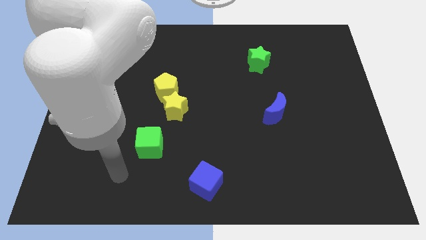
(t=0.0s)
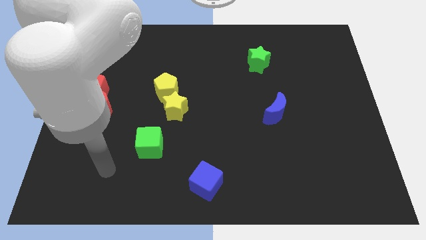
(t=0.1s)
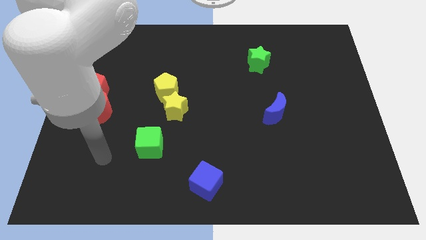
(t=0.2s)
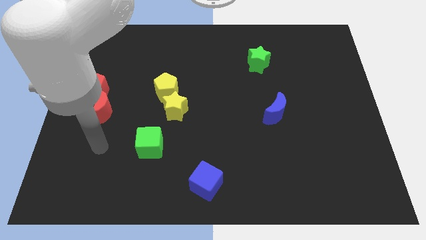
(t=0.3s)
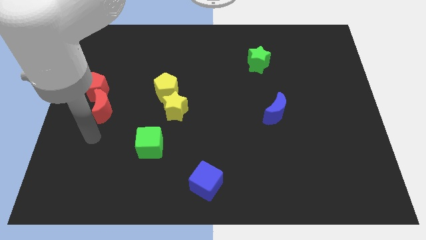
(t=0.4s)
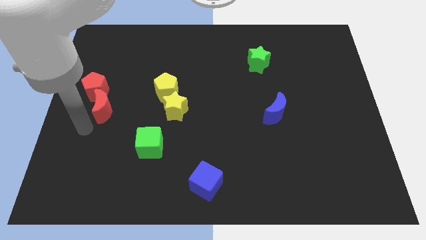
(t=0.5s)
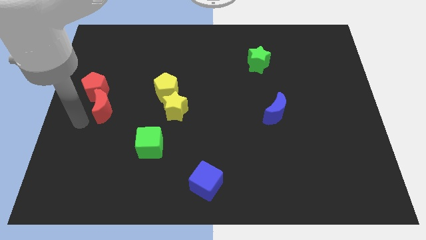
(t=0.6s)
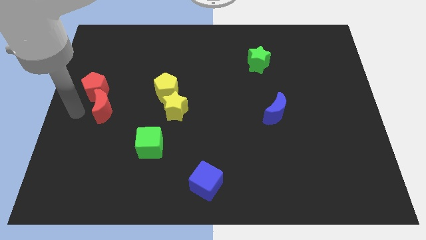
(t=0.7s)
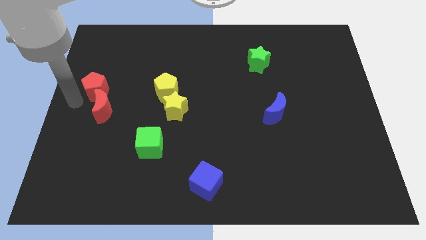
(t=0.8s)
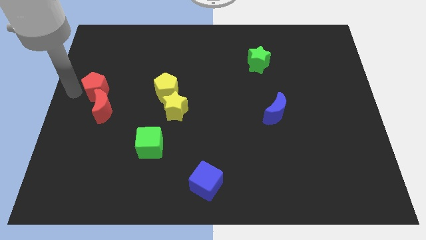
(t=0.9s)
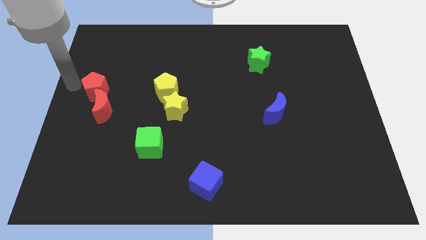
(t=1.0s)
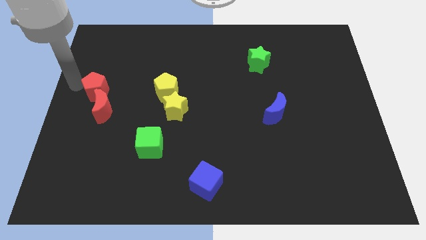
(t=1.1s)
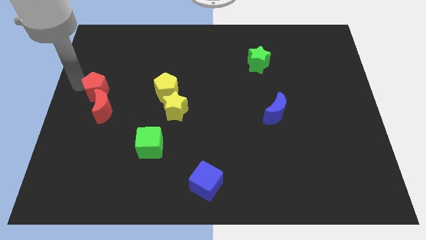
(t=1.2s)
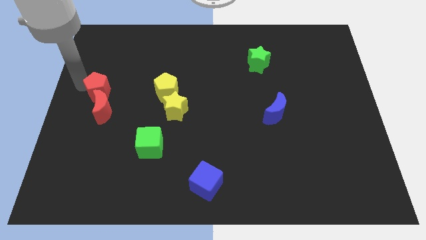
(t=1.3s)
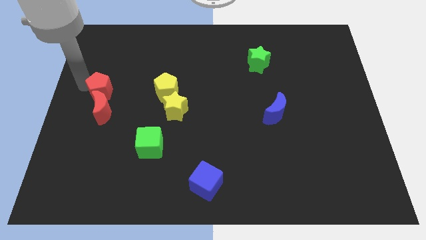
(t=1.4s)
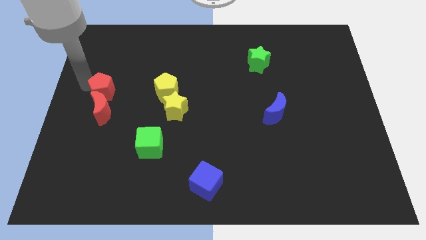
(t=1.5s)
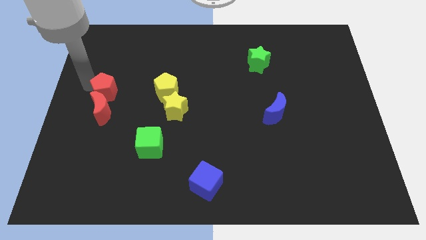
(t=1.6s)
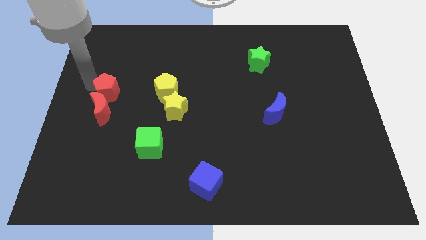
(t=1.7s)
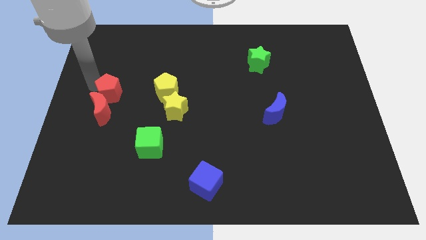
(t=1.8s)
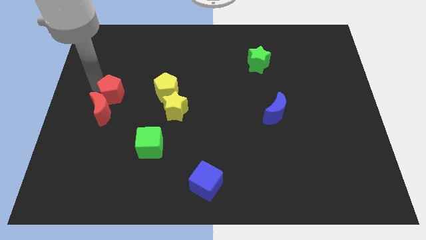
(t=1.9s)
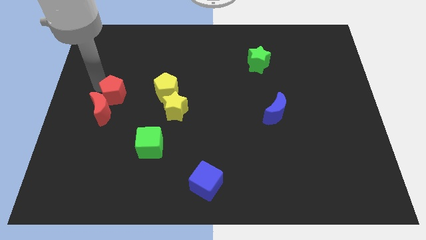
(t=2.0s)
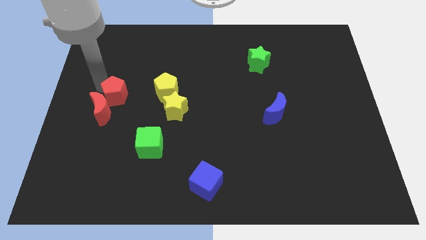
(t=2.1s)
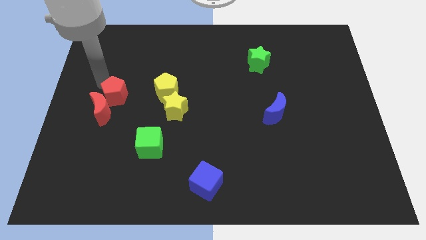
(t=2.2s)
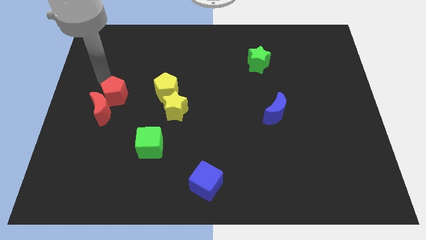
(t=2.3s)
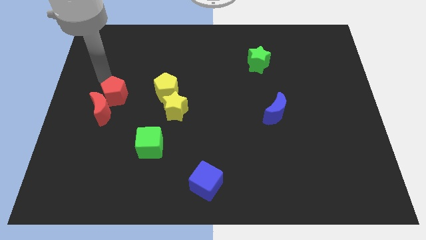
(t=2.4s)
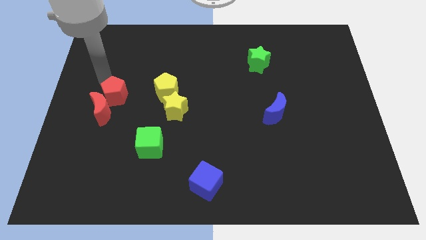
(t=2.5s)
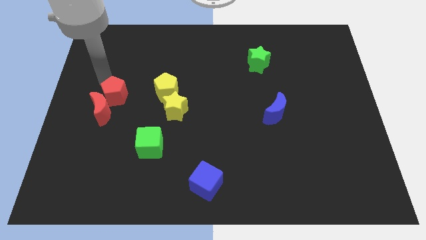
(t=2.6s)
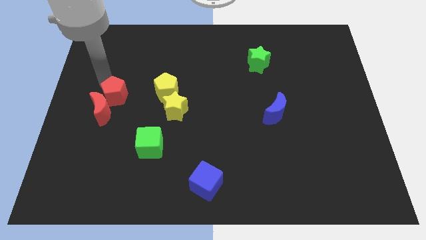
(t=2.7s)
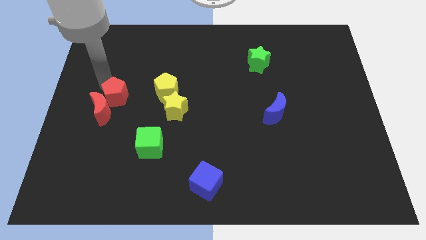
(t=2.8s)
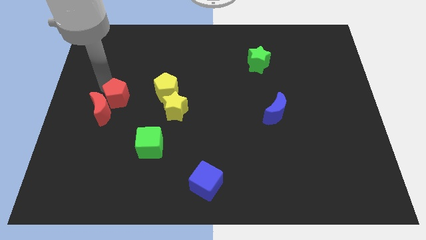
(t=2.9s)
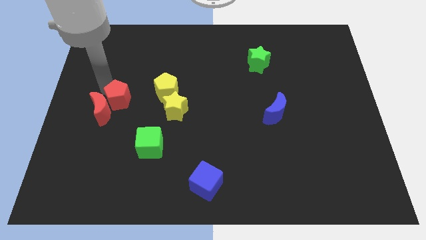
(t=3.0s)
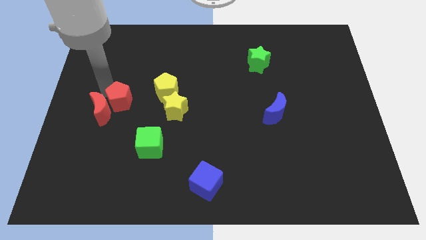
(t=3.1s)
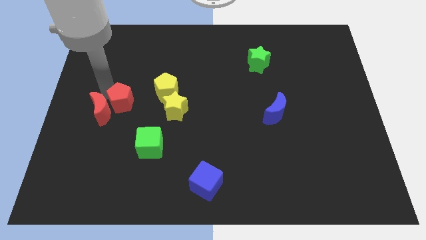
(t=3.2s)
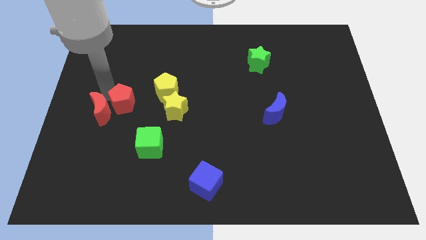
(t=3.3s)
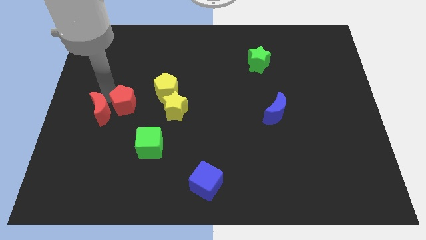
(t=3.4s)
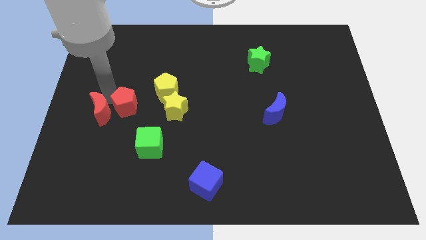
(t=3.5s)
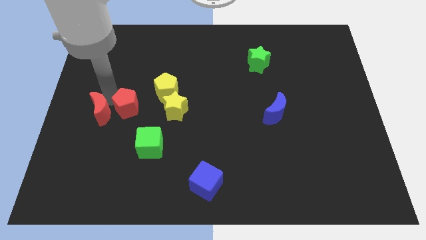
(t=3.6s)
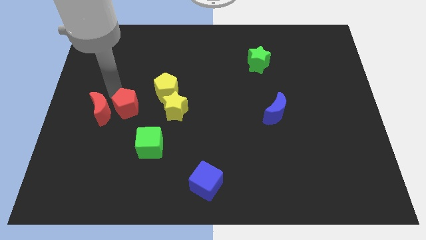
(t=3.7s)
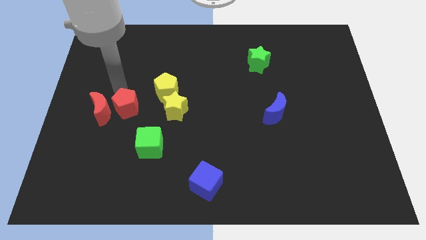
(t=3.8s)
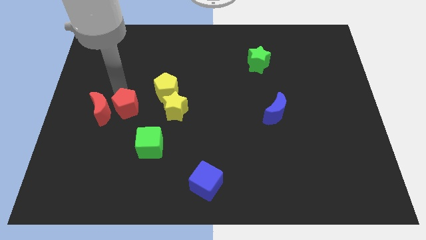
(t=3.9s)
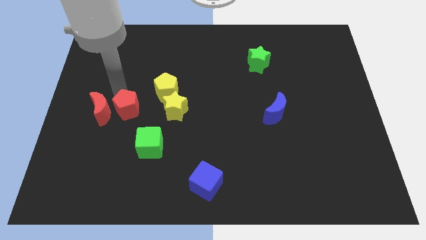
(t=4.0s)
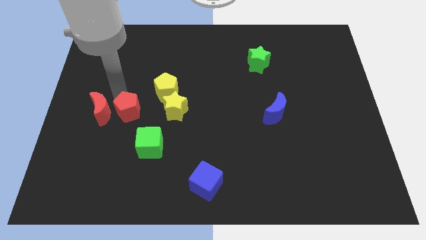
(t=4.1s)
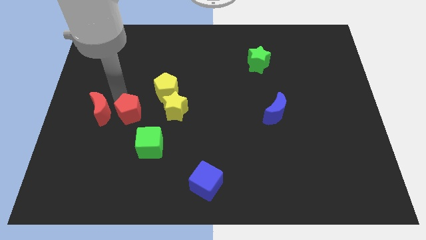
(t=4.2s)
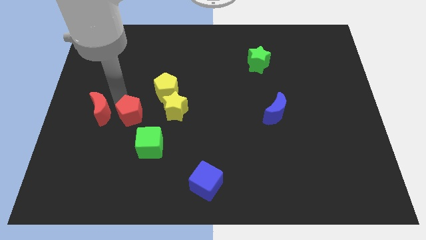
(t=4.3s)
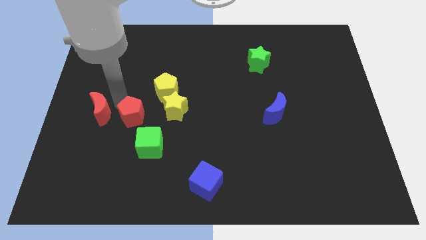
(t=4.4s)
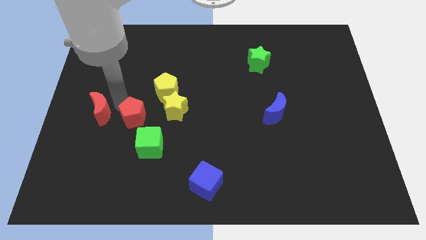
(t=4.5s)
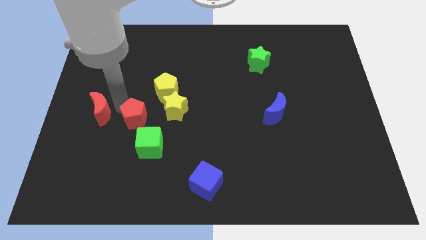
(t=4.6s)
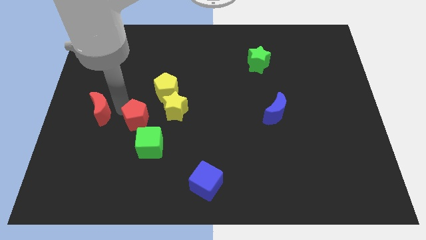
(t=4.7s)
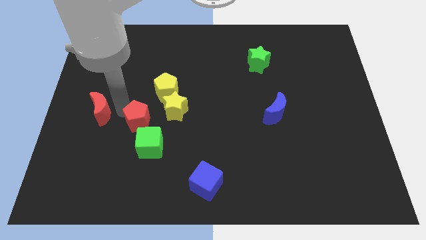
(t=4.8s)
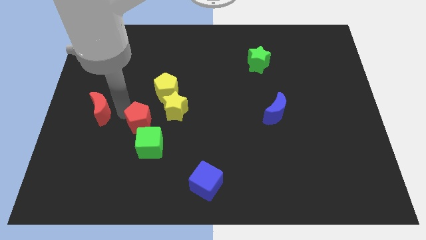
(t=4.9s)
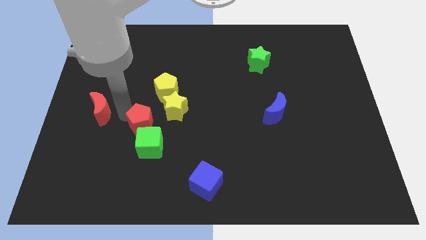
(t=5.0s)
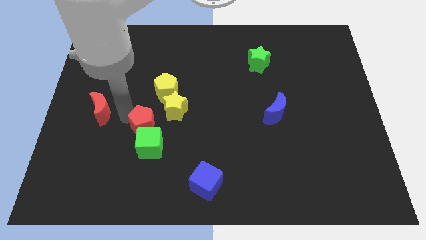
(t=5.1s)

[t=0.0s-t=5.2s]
push the red pentagon to the green cube

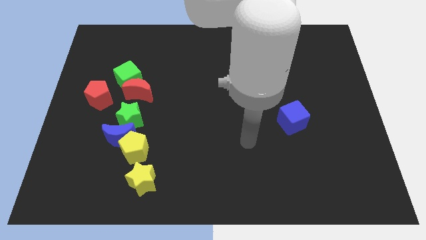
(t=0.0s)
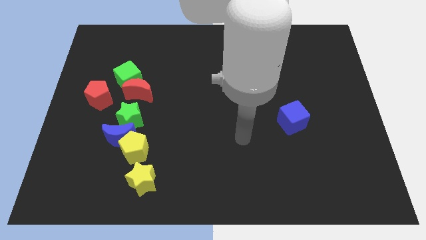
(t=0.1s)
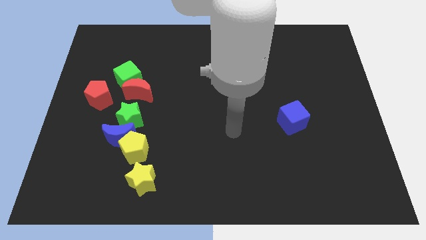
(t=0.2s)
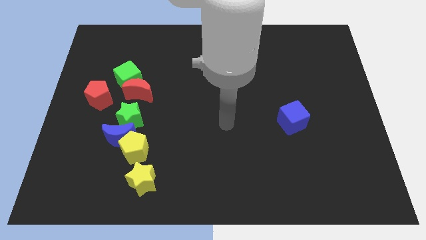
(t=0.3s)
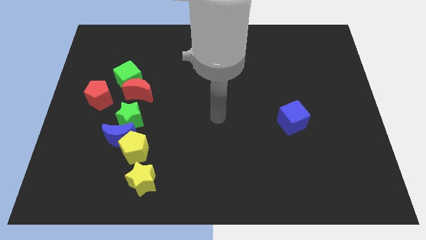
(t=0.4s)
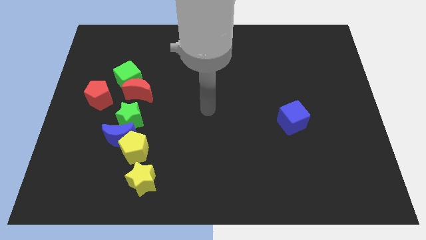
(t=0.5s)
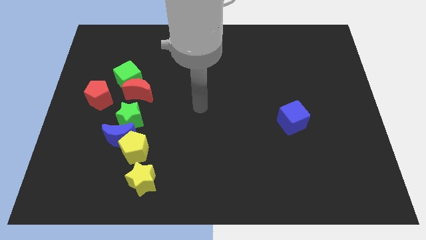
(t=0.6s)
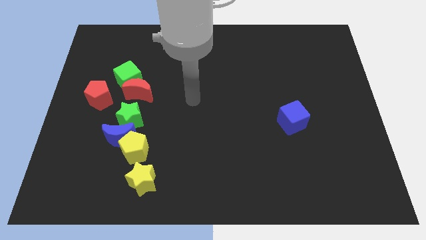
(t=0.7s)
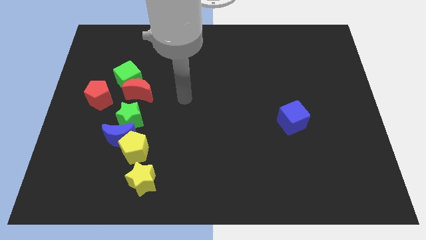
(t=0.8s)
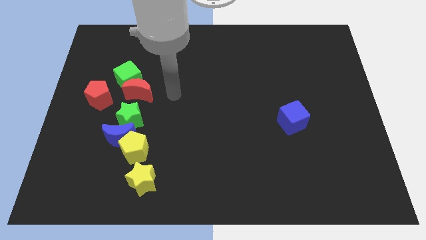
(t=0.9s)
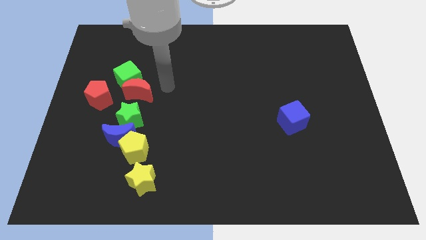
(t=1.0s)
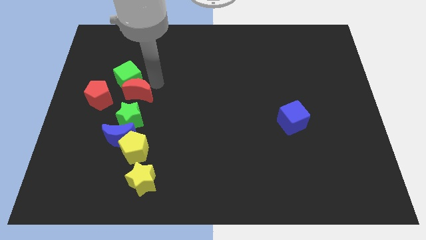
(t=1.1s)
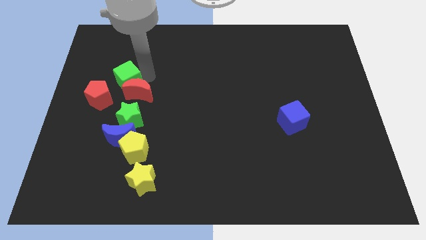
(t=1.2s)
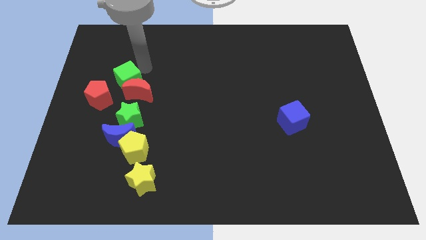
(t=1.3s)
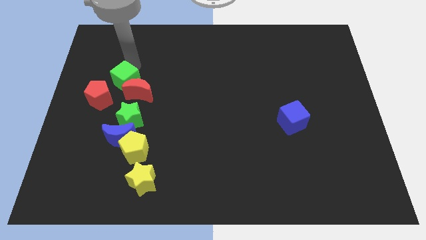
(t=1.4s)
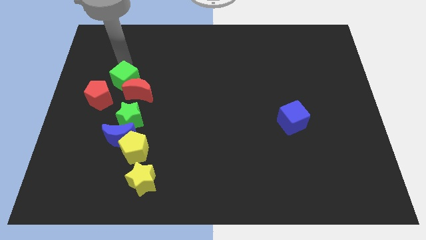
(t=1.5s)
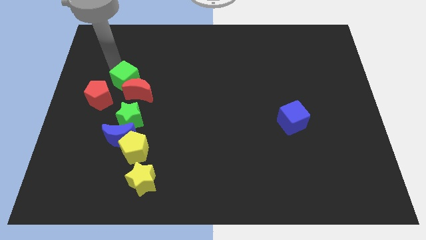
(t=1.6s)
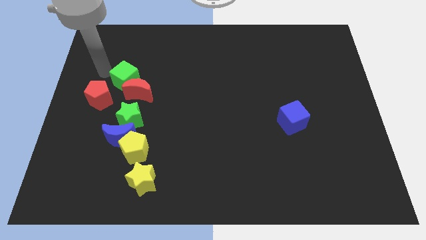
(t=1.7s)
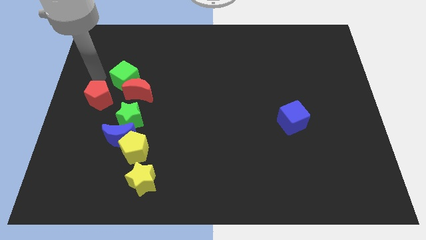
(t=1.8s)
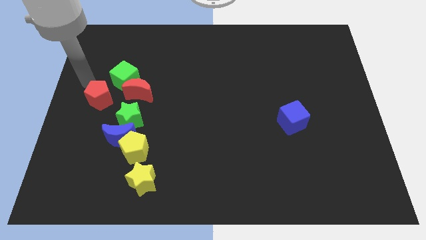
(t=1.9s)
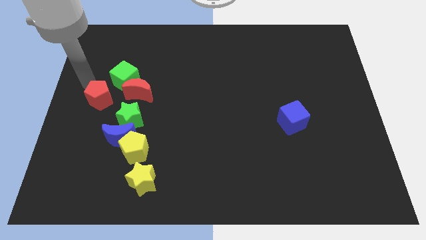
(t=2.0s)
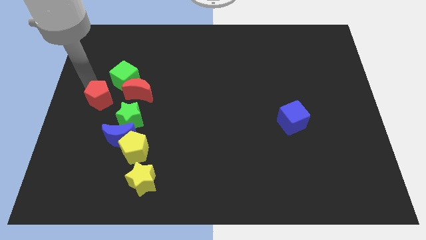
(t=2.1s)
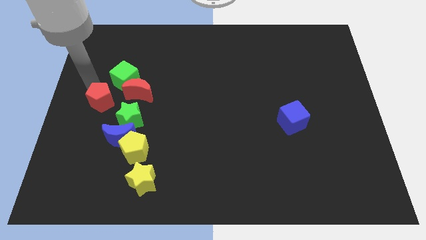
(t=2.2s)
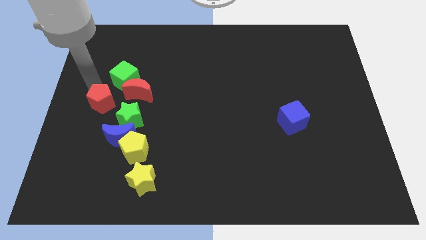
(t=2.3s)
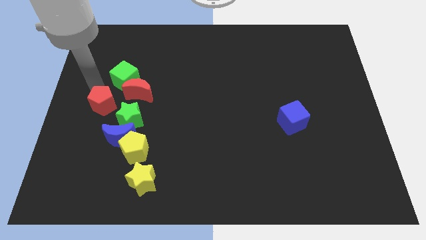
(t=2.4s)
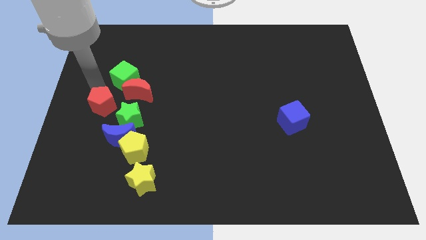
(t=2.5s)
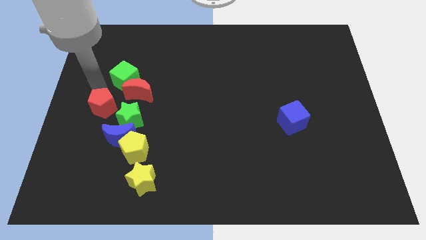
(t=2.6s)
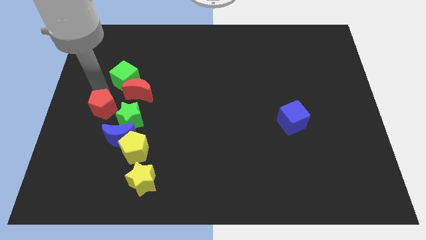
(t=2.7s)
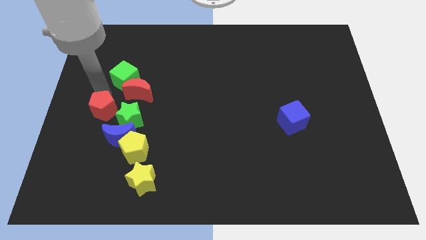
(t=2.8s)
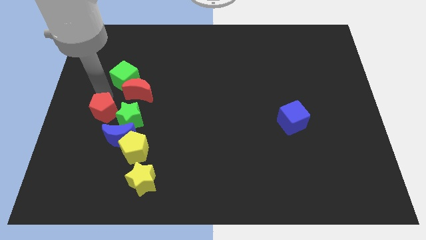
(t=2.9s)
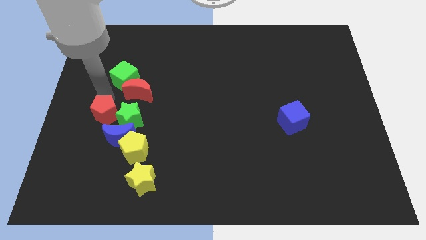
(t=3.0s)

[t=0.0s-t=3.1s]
put the red pentagon close to the green star
